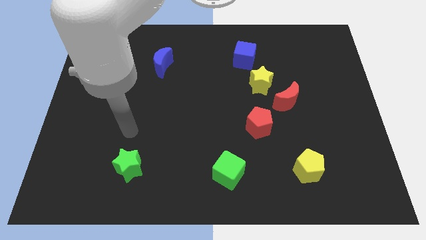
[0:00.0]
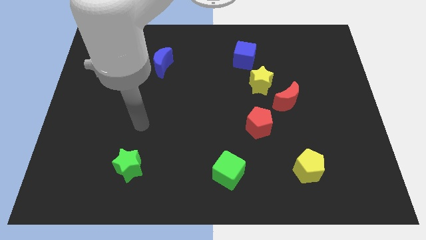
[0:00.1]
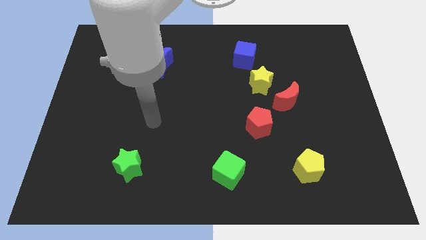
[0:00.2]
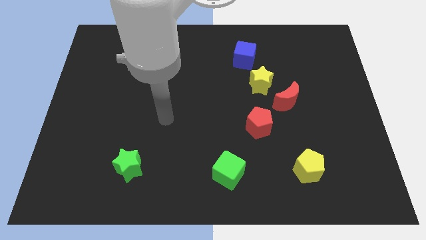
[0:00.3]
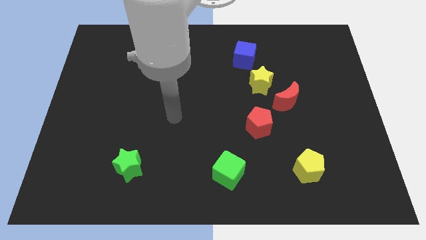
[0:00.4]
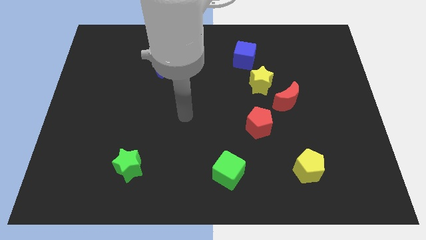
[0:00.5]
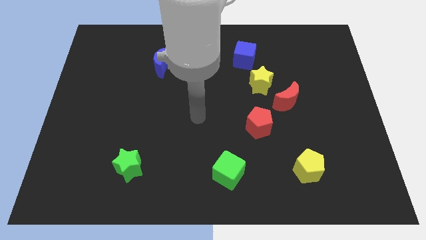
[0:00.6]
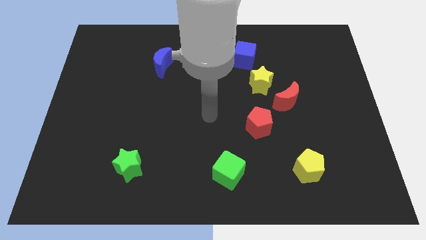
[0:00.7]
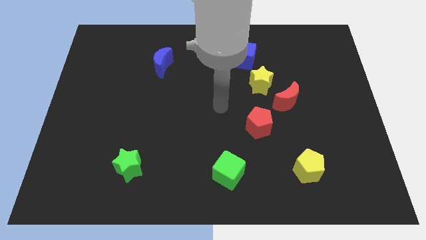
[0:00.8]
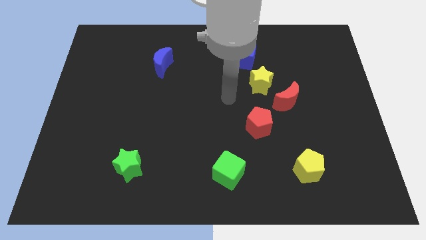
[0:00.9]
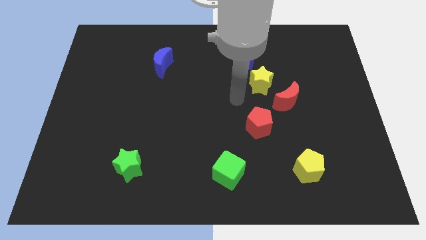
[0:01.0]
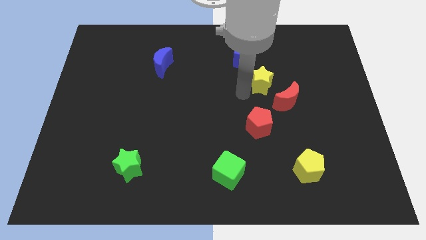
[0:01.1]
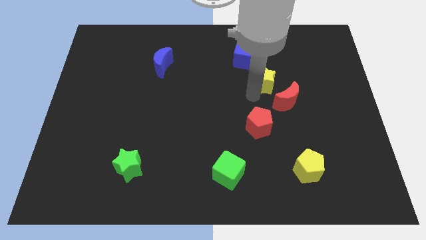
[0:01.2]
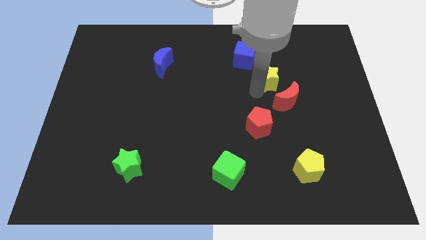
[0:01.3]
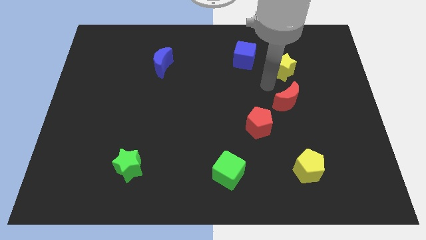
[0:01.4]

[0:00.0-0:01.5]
separate the red moon from the yellow star

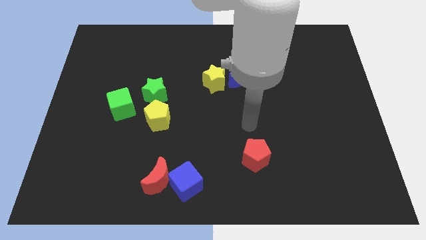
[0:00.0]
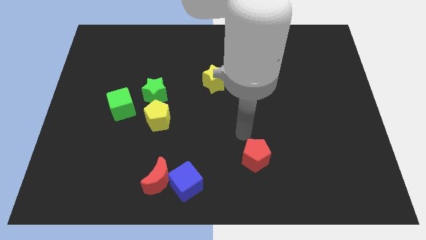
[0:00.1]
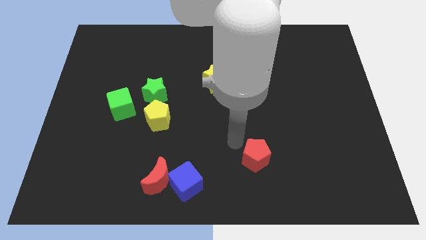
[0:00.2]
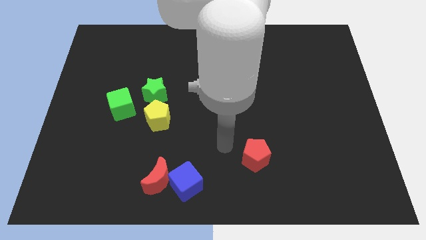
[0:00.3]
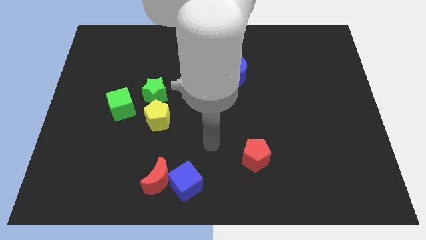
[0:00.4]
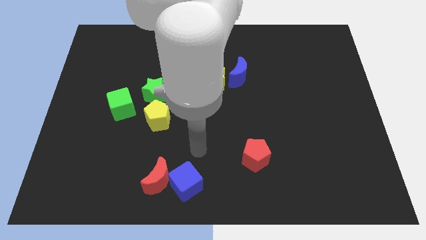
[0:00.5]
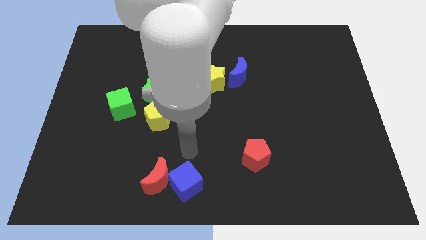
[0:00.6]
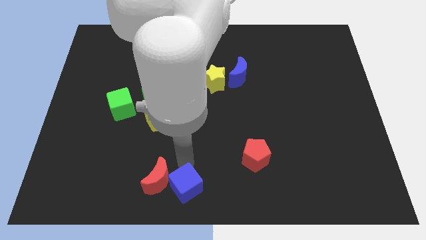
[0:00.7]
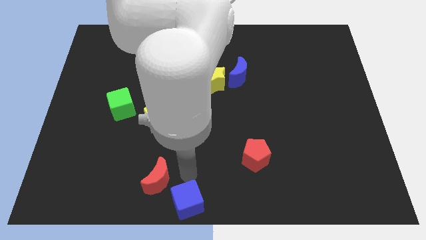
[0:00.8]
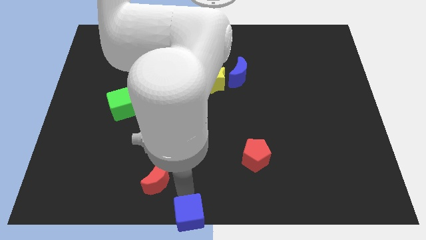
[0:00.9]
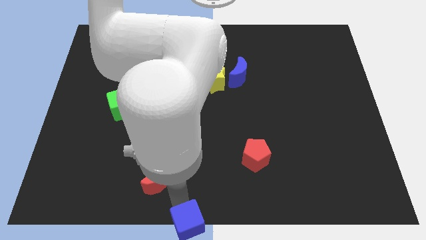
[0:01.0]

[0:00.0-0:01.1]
move the red moon away from the blue cube

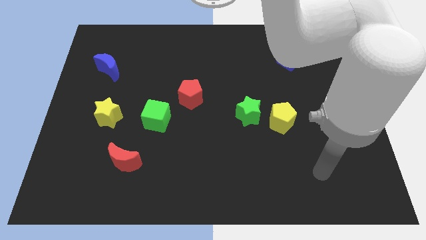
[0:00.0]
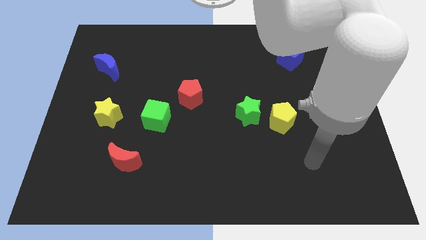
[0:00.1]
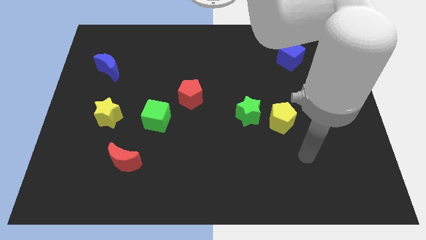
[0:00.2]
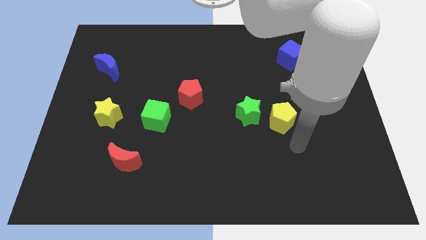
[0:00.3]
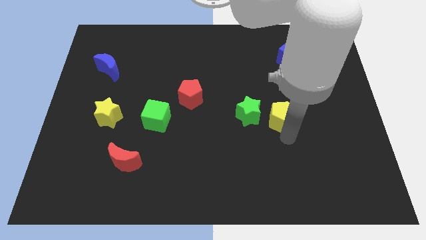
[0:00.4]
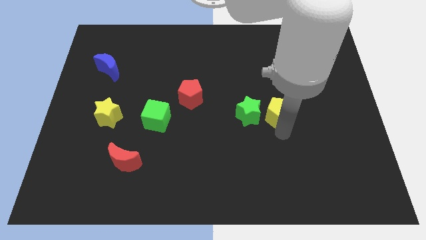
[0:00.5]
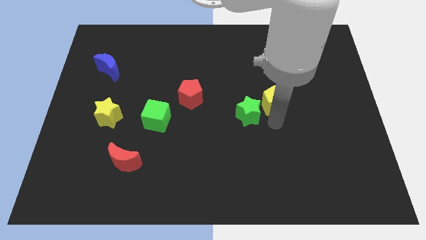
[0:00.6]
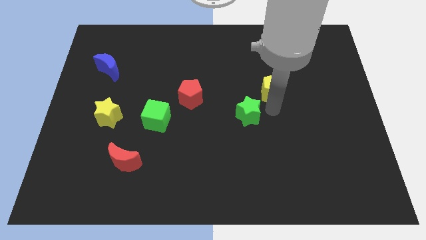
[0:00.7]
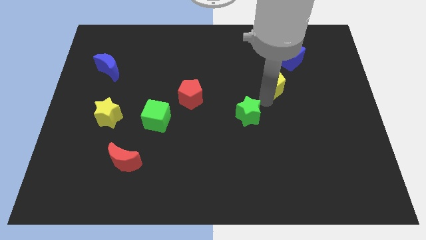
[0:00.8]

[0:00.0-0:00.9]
pull the green star apart from the yellow pentagon

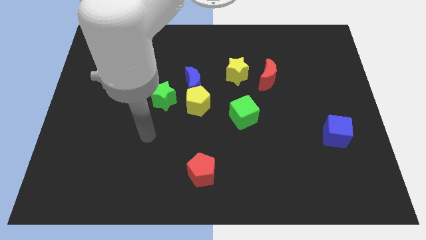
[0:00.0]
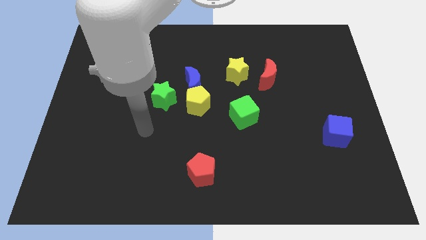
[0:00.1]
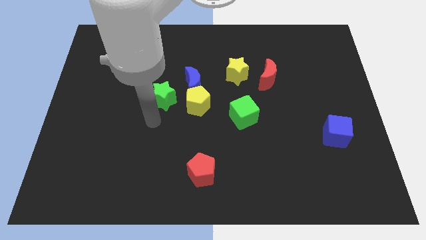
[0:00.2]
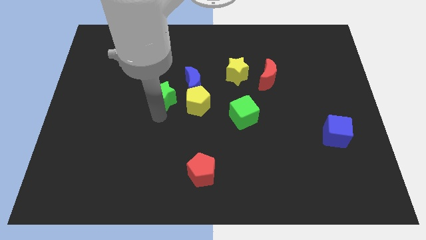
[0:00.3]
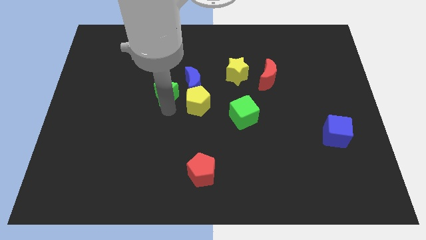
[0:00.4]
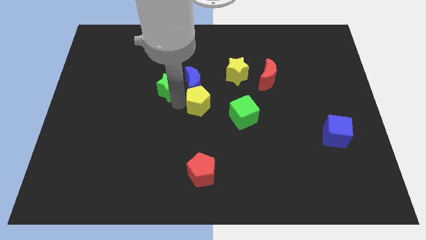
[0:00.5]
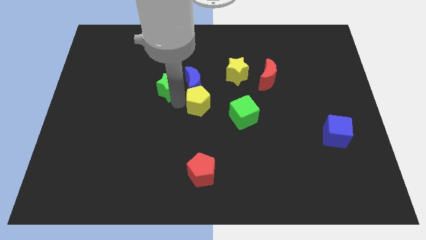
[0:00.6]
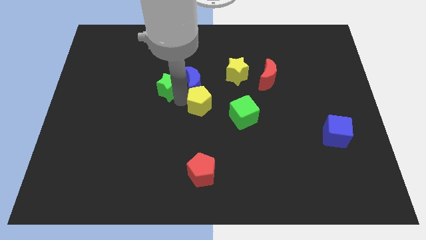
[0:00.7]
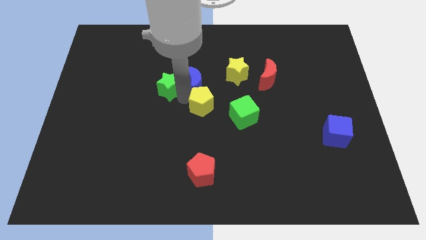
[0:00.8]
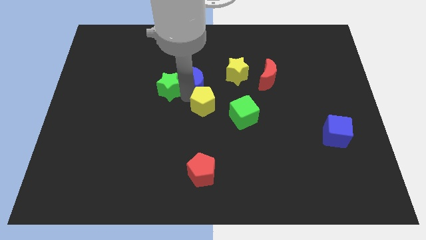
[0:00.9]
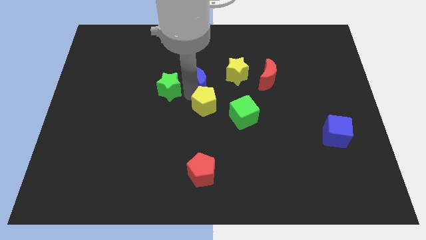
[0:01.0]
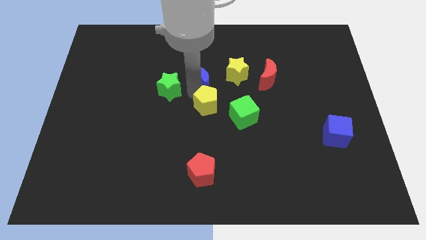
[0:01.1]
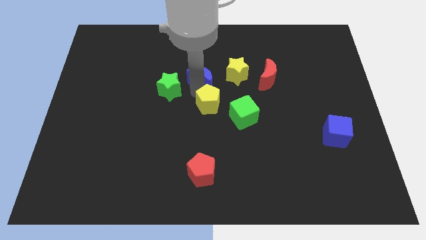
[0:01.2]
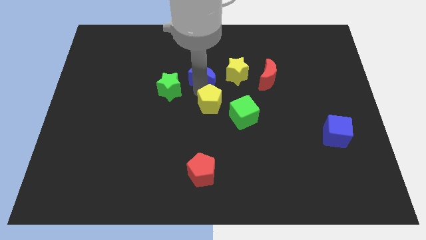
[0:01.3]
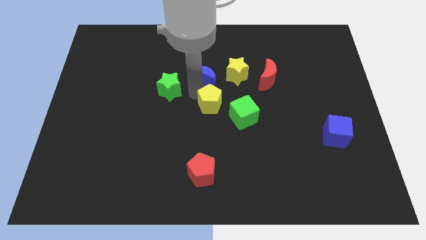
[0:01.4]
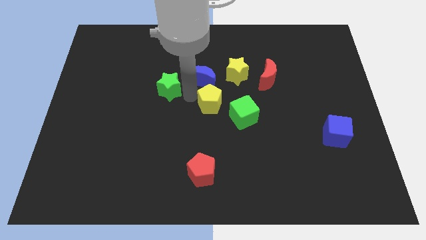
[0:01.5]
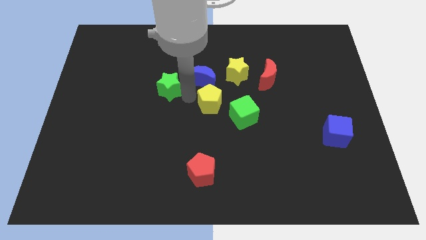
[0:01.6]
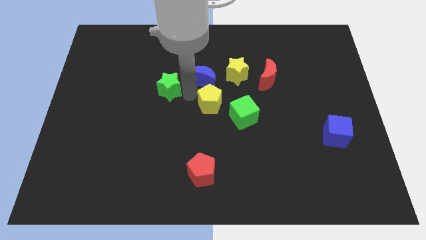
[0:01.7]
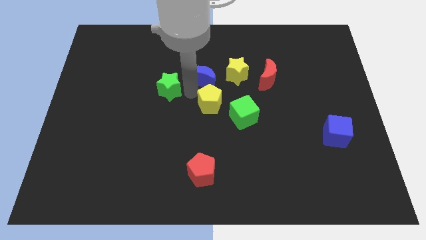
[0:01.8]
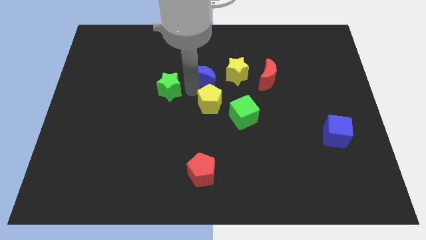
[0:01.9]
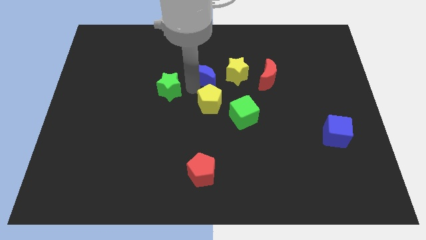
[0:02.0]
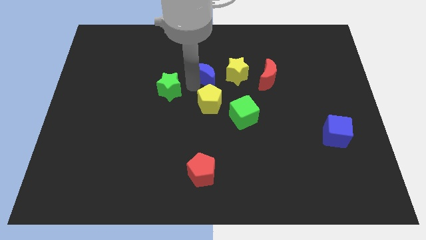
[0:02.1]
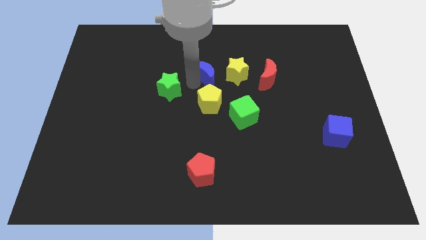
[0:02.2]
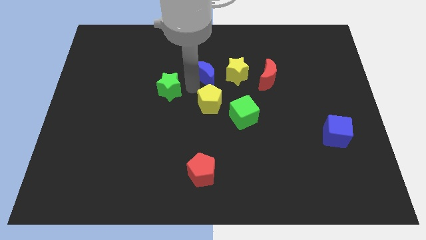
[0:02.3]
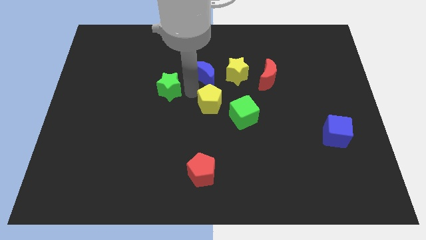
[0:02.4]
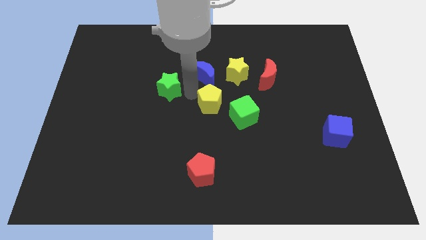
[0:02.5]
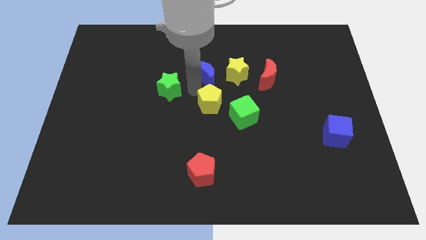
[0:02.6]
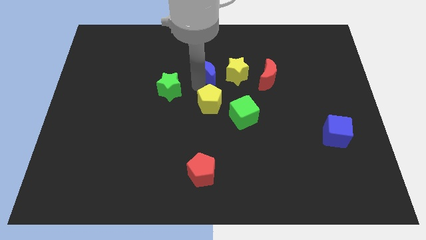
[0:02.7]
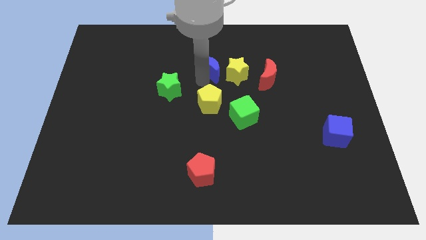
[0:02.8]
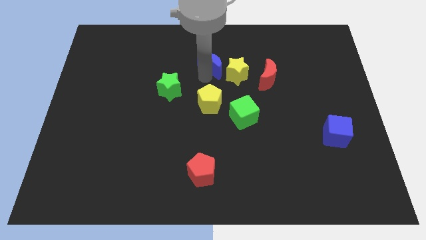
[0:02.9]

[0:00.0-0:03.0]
move the blue moon away from the yellow pentagon and green star

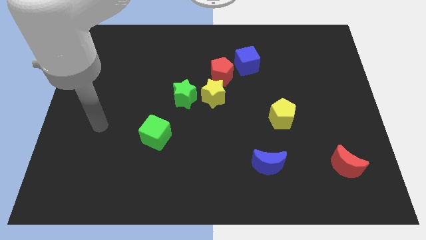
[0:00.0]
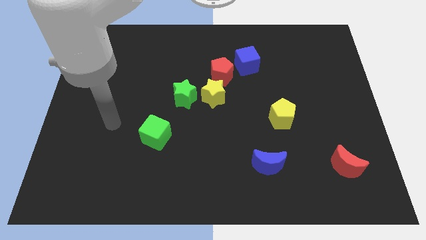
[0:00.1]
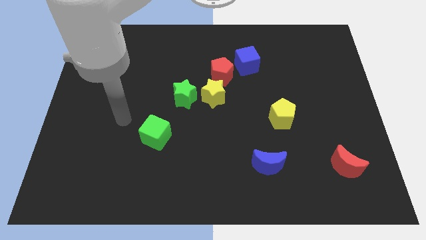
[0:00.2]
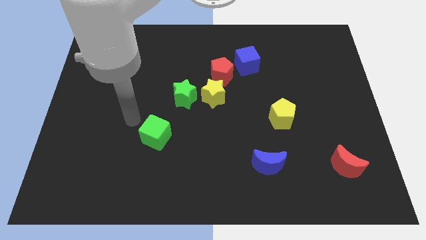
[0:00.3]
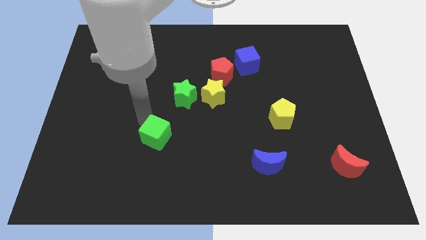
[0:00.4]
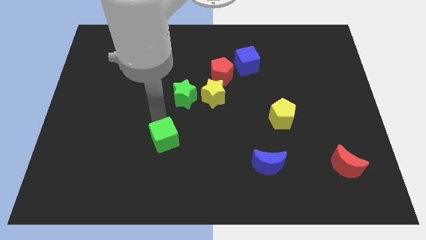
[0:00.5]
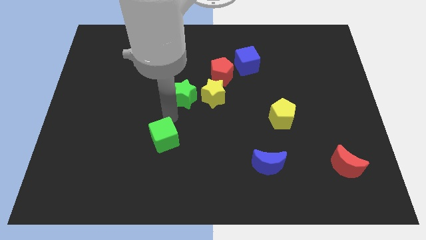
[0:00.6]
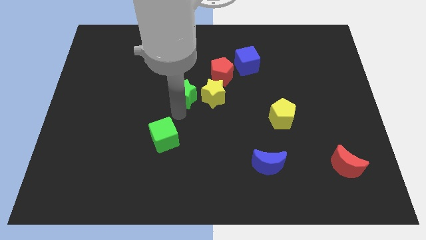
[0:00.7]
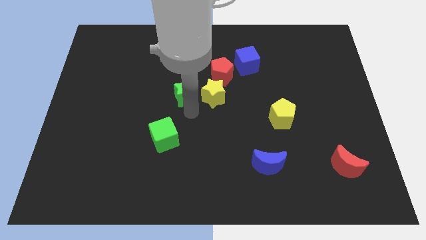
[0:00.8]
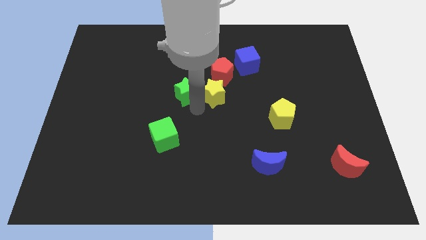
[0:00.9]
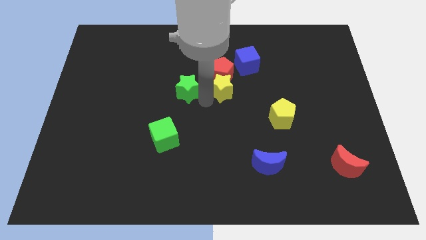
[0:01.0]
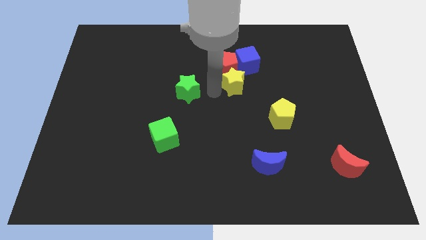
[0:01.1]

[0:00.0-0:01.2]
separate the green star from the yellow star

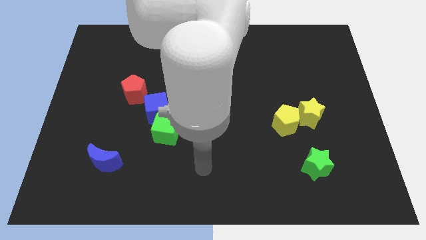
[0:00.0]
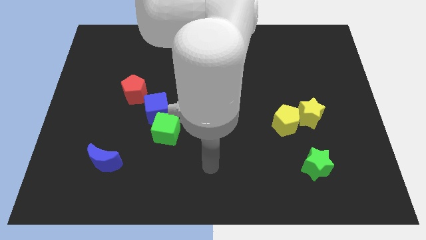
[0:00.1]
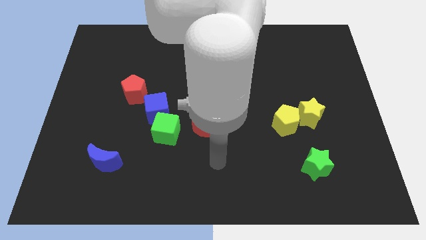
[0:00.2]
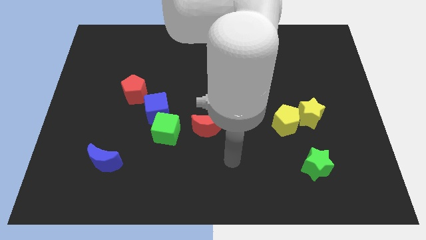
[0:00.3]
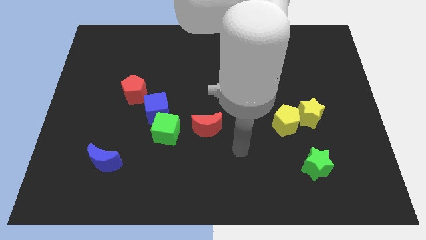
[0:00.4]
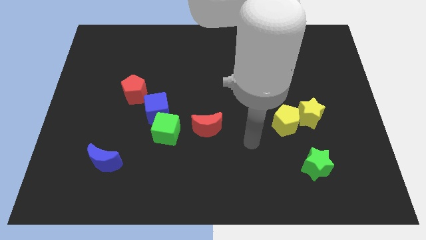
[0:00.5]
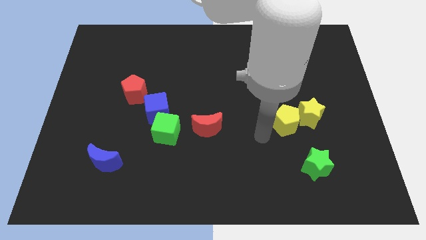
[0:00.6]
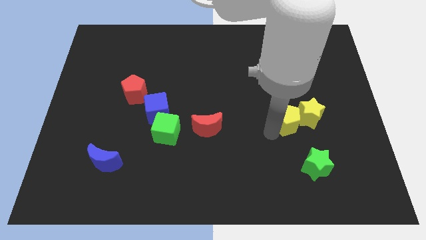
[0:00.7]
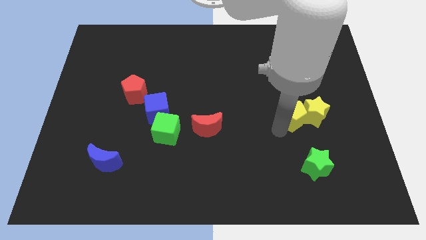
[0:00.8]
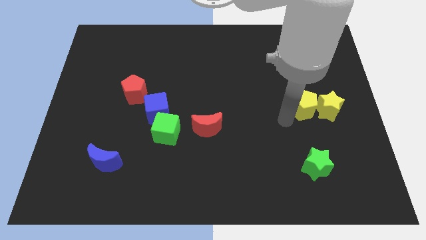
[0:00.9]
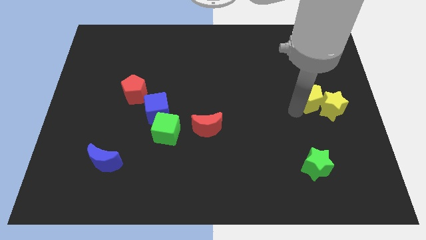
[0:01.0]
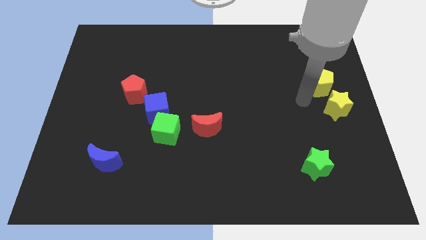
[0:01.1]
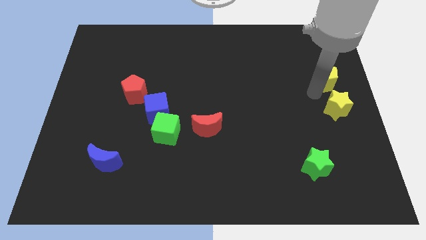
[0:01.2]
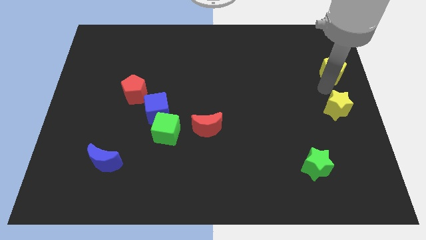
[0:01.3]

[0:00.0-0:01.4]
pull the yellow star apart from the yellow pentagon

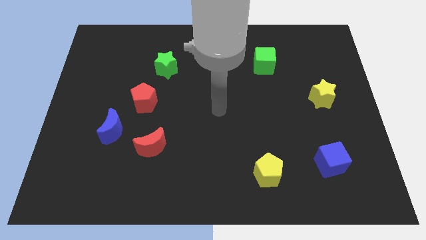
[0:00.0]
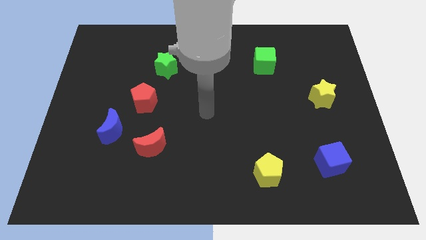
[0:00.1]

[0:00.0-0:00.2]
pull the red moon apart from the blue moon
